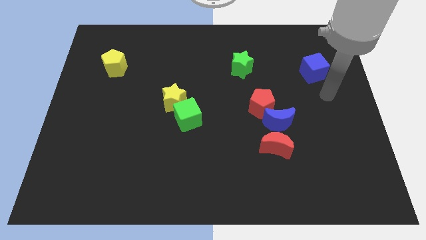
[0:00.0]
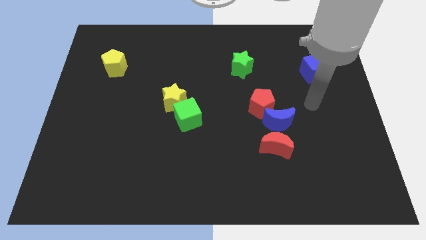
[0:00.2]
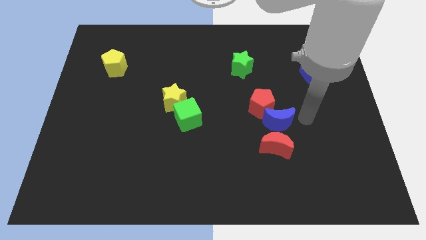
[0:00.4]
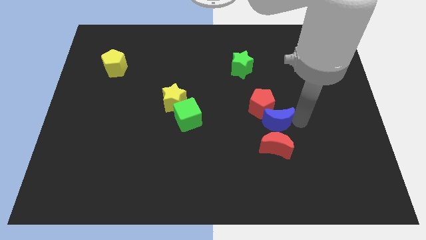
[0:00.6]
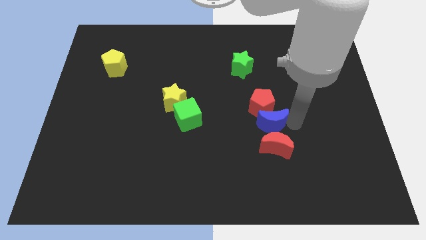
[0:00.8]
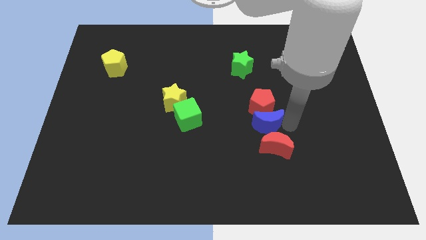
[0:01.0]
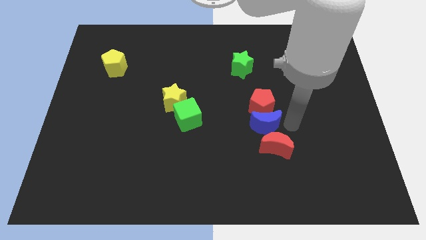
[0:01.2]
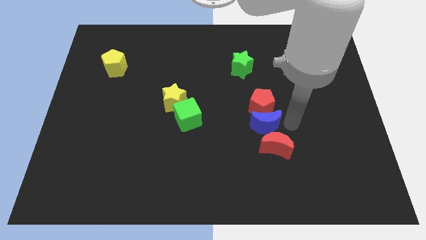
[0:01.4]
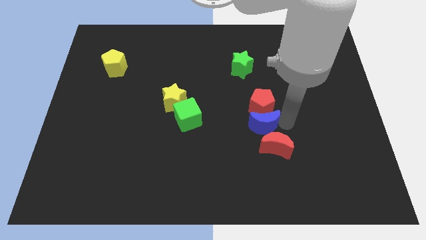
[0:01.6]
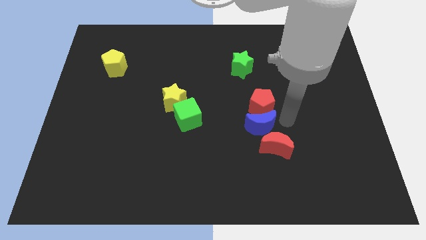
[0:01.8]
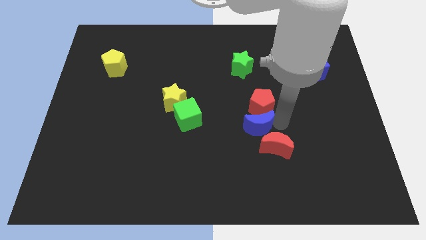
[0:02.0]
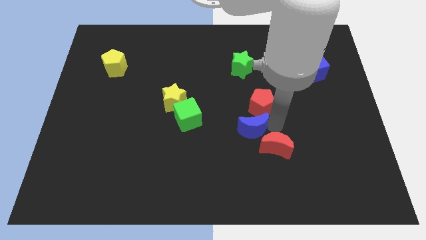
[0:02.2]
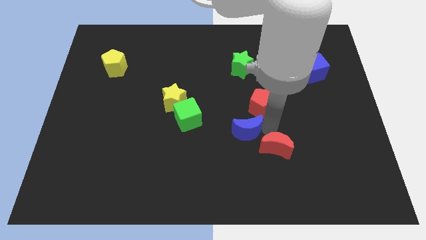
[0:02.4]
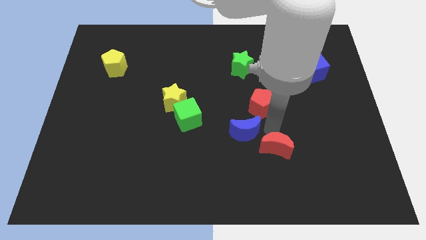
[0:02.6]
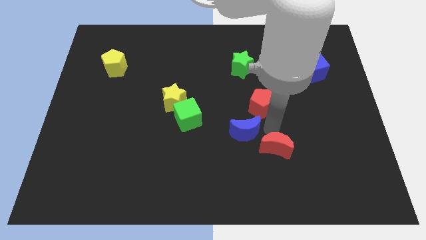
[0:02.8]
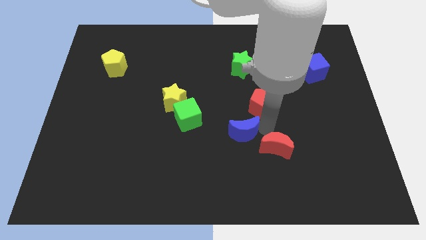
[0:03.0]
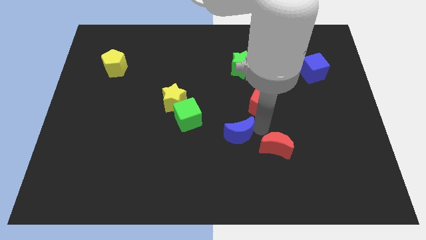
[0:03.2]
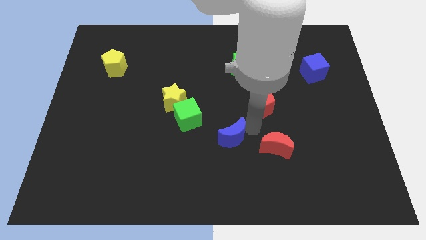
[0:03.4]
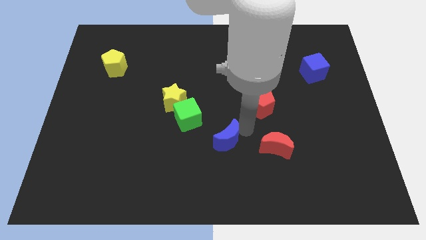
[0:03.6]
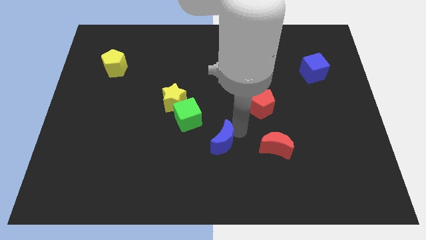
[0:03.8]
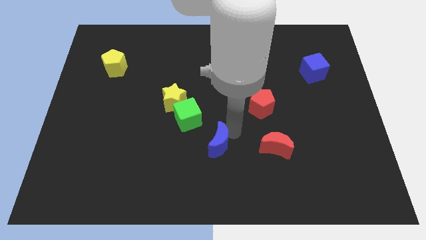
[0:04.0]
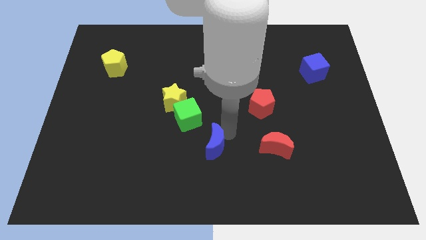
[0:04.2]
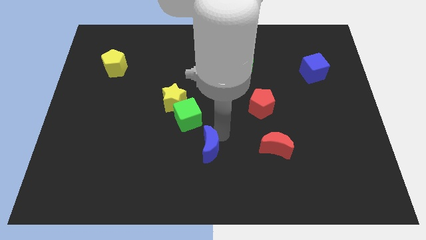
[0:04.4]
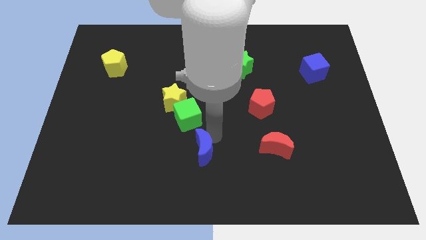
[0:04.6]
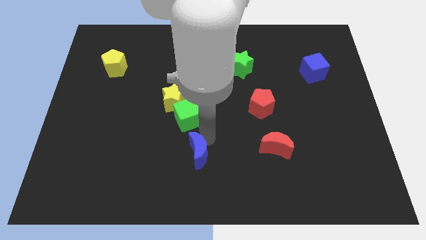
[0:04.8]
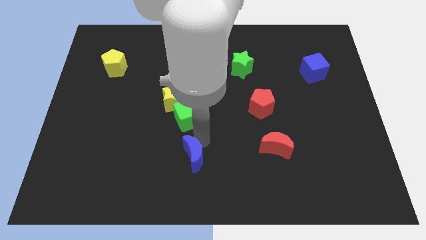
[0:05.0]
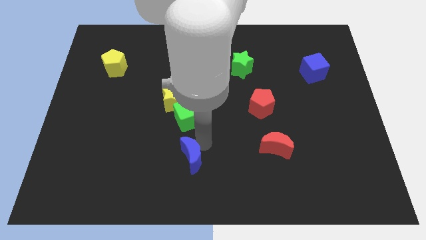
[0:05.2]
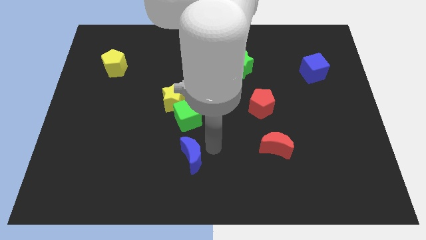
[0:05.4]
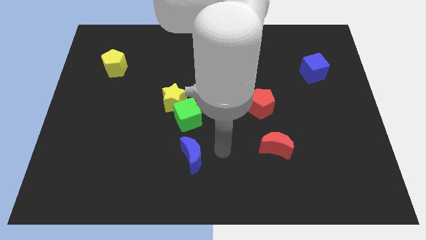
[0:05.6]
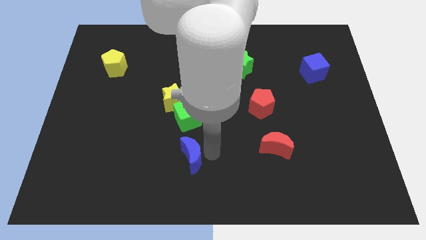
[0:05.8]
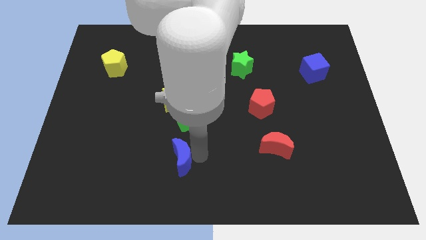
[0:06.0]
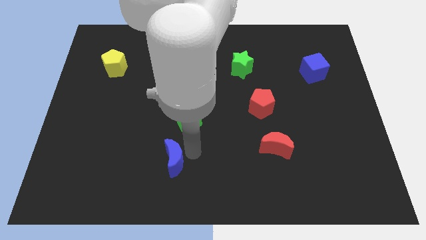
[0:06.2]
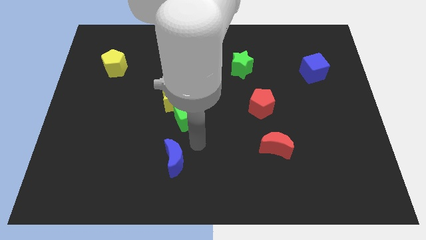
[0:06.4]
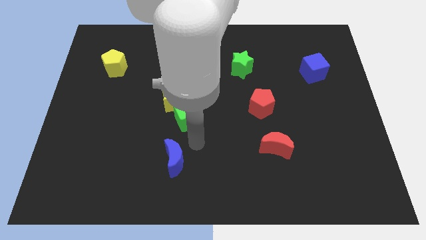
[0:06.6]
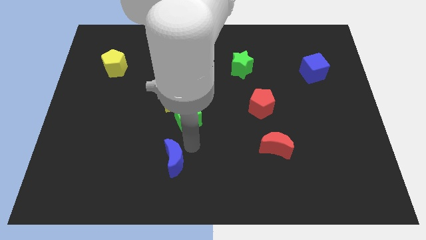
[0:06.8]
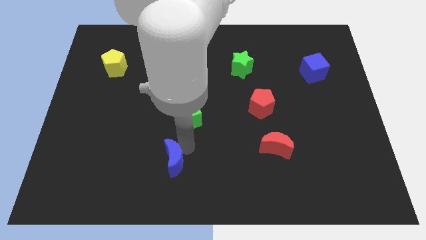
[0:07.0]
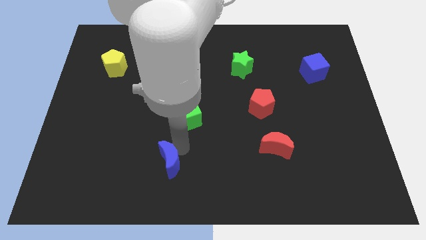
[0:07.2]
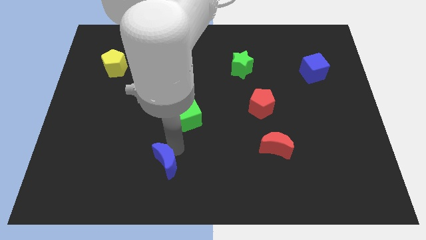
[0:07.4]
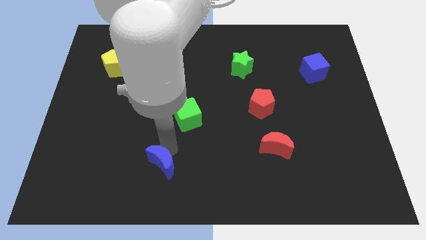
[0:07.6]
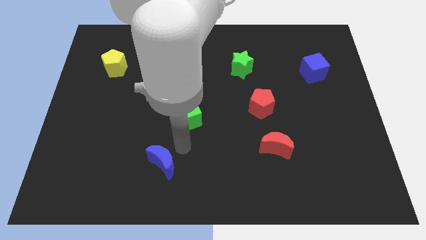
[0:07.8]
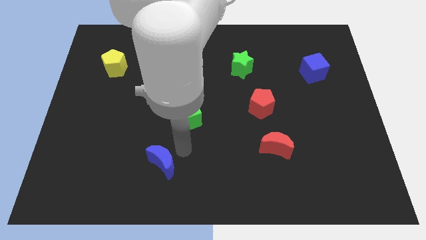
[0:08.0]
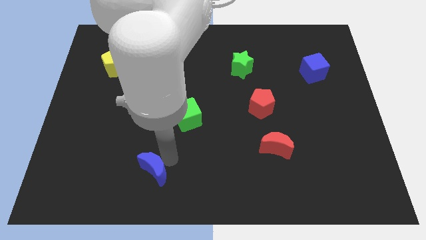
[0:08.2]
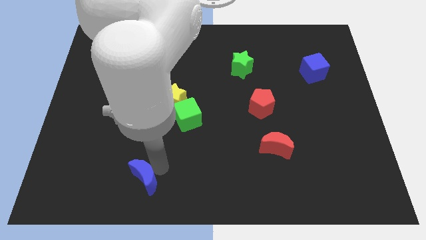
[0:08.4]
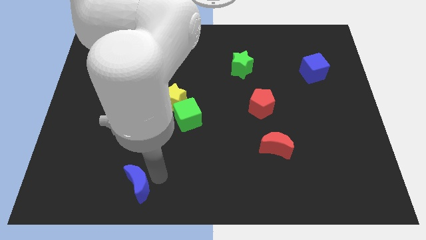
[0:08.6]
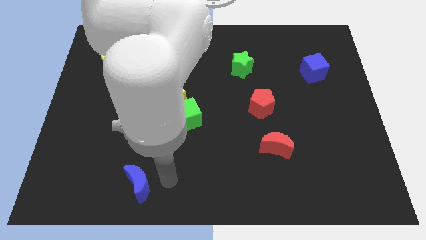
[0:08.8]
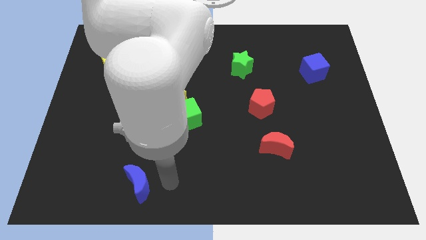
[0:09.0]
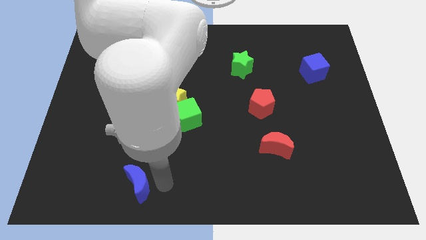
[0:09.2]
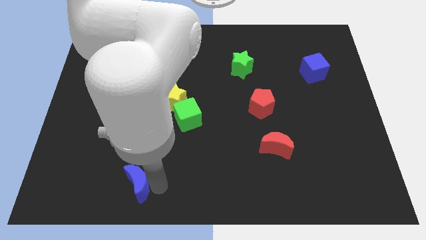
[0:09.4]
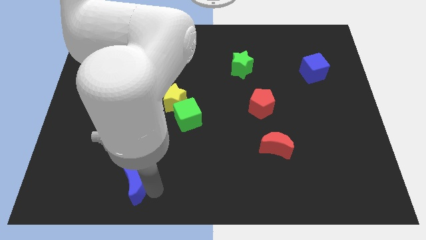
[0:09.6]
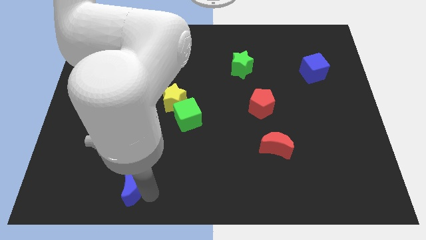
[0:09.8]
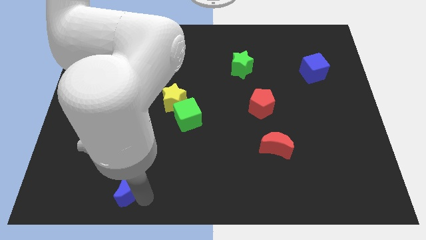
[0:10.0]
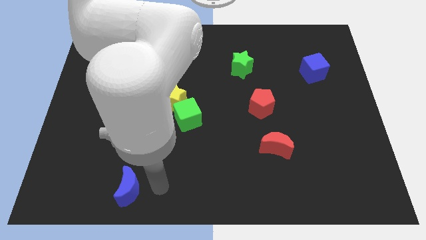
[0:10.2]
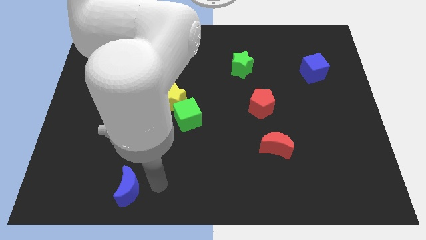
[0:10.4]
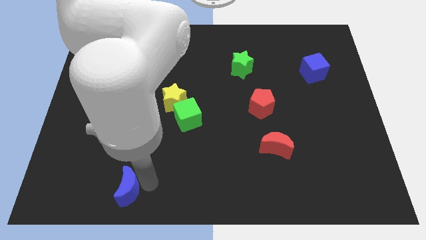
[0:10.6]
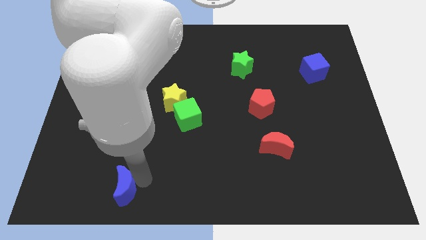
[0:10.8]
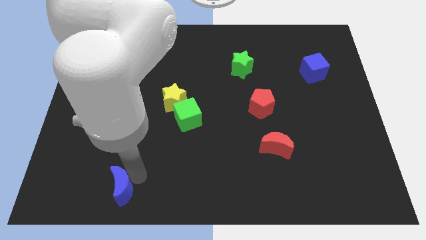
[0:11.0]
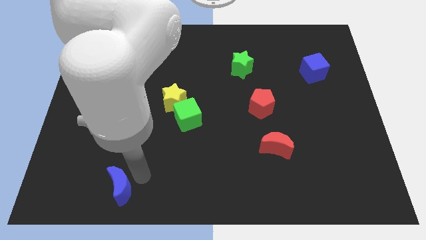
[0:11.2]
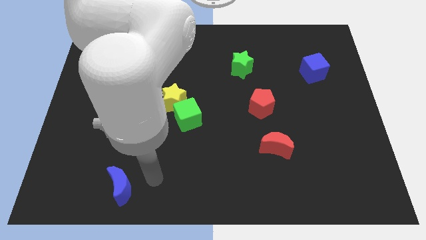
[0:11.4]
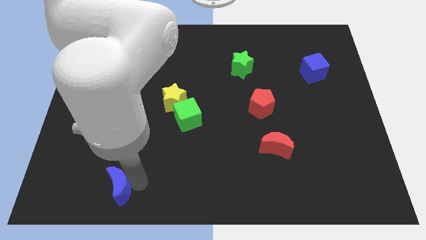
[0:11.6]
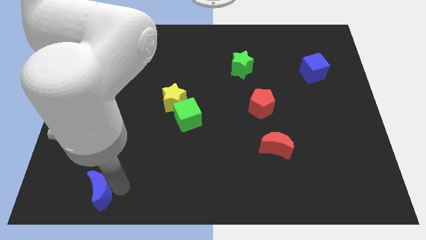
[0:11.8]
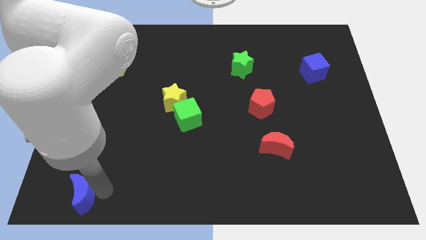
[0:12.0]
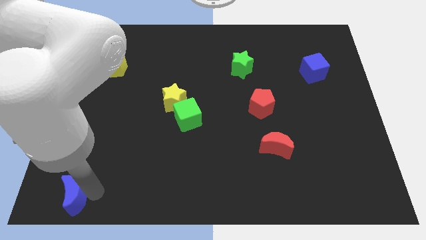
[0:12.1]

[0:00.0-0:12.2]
move the blue moon to the lower left corner
